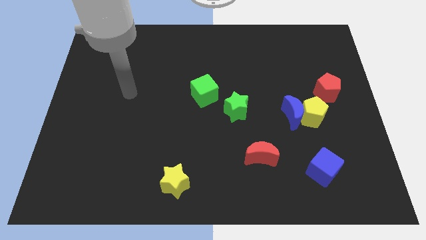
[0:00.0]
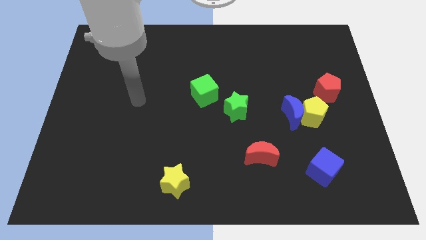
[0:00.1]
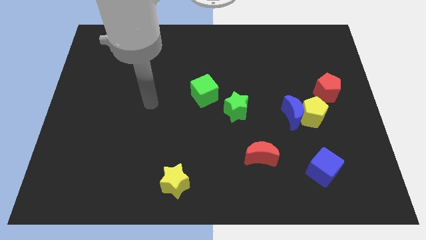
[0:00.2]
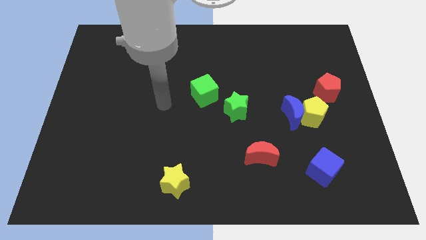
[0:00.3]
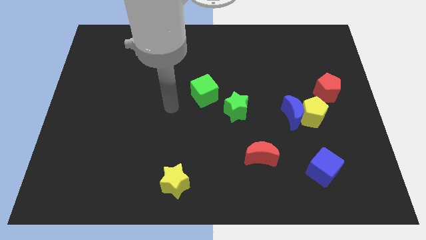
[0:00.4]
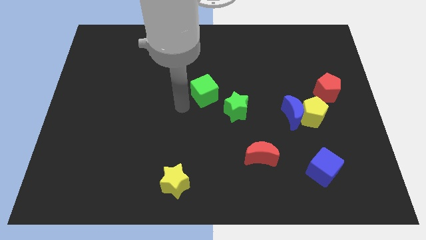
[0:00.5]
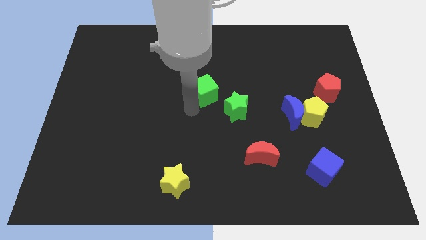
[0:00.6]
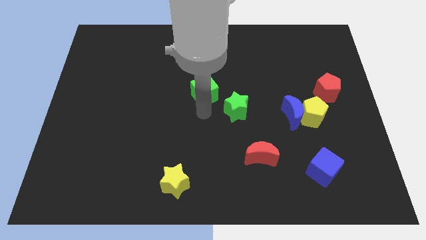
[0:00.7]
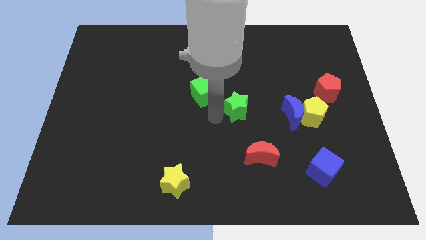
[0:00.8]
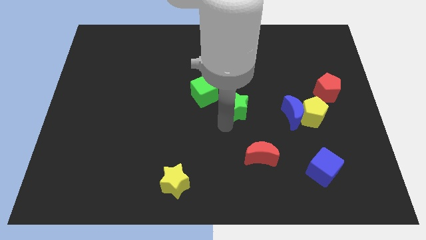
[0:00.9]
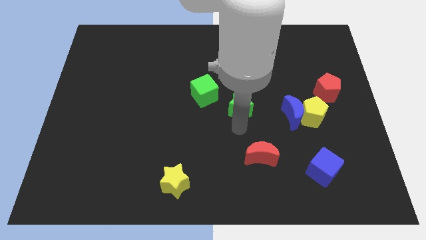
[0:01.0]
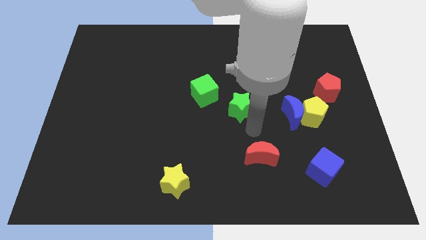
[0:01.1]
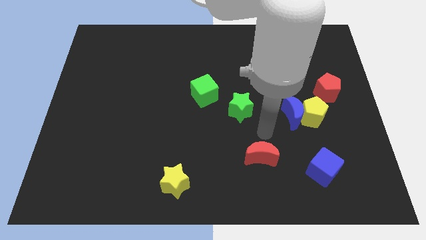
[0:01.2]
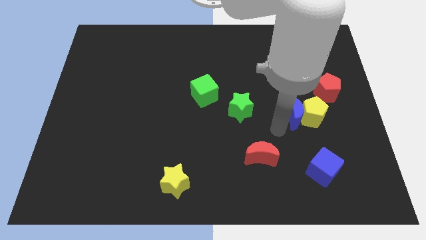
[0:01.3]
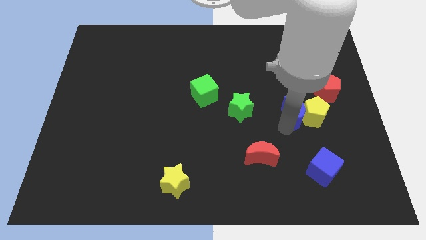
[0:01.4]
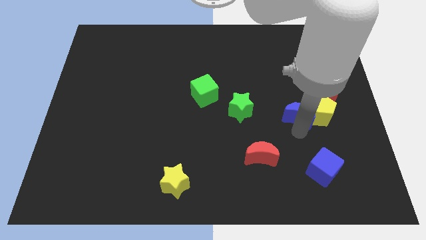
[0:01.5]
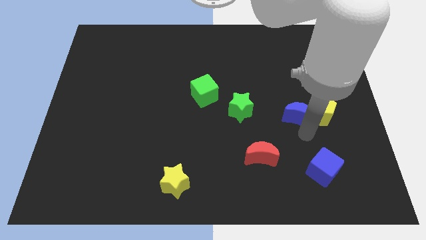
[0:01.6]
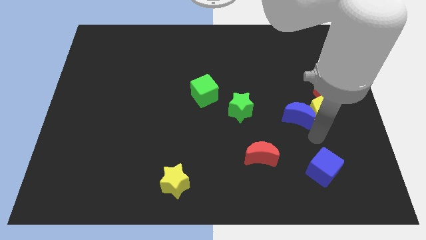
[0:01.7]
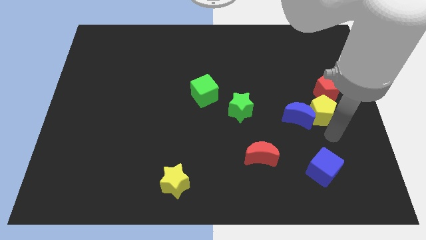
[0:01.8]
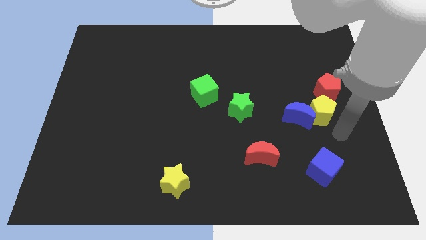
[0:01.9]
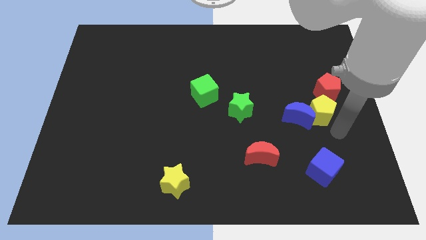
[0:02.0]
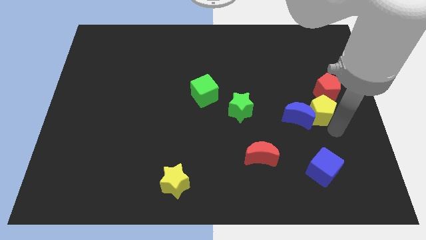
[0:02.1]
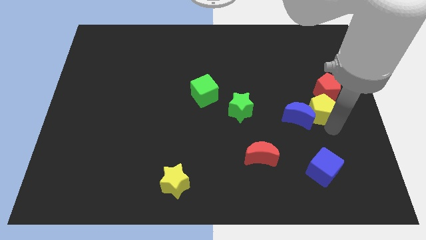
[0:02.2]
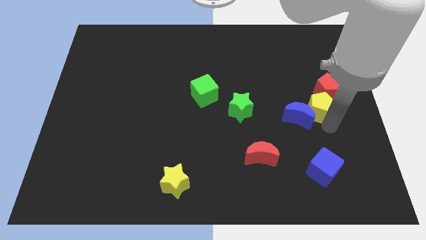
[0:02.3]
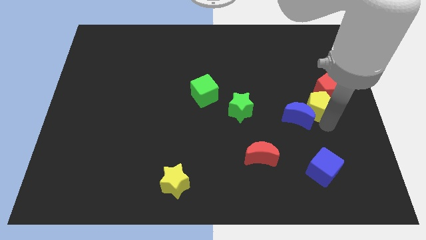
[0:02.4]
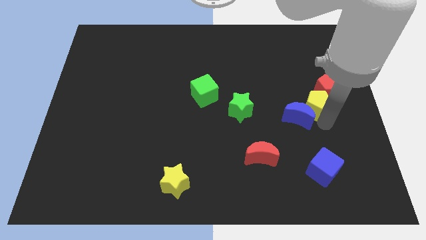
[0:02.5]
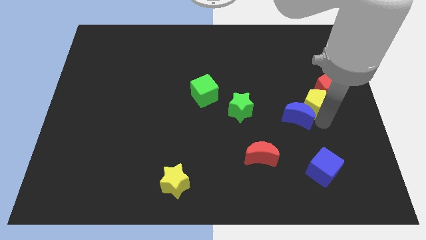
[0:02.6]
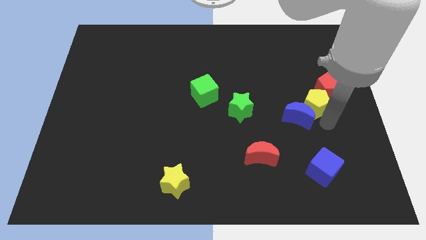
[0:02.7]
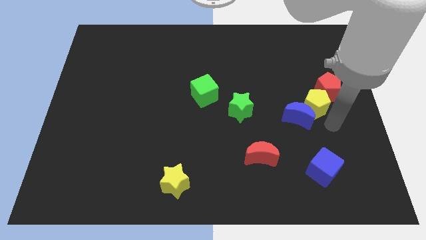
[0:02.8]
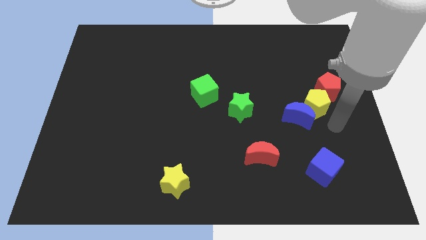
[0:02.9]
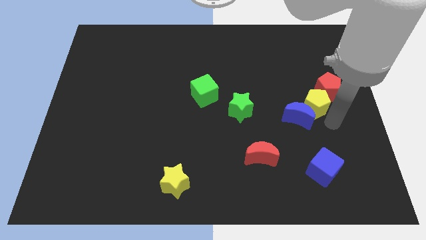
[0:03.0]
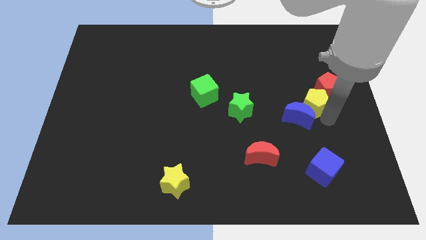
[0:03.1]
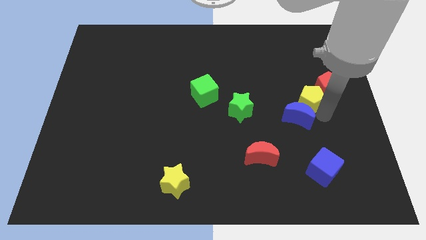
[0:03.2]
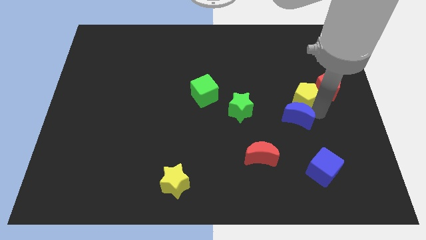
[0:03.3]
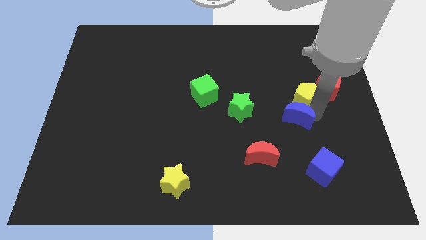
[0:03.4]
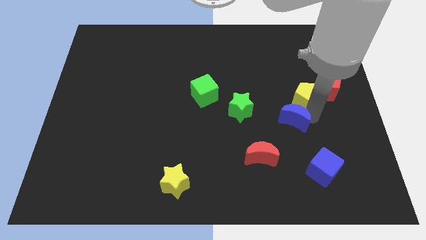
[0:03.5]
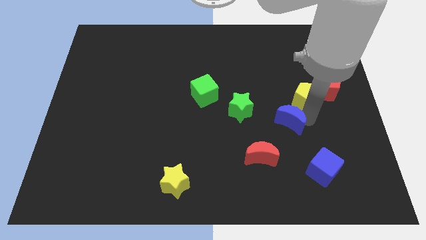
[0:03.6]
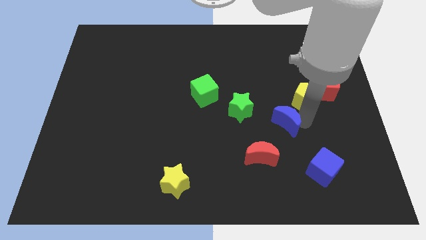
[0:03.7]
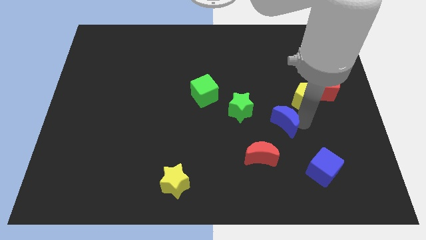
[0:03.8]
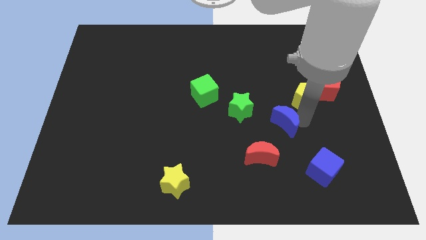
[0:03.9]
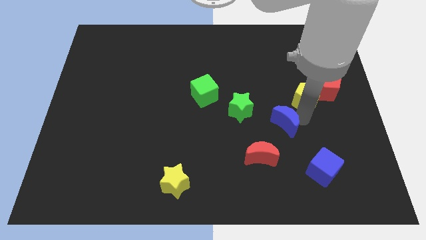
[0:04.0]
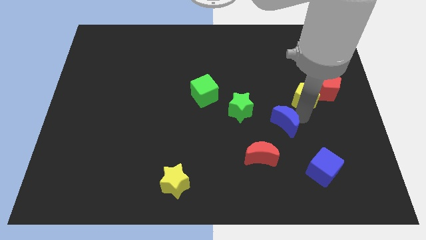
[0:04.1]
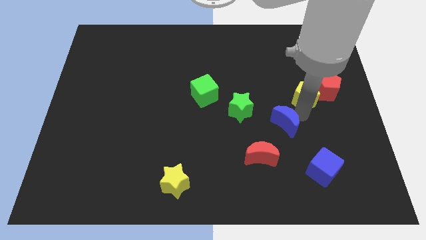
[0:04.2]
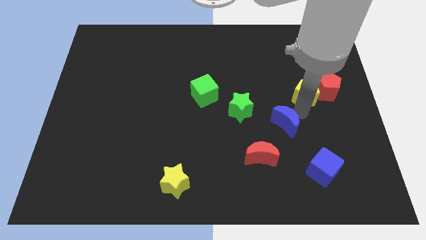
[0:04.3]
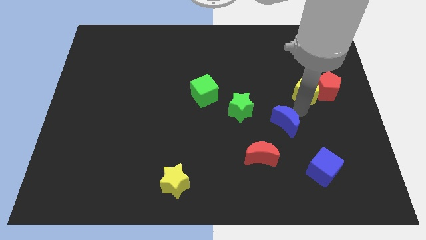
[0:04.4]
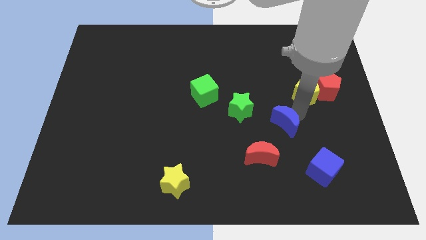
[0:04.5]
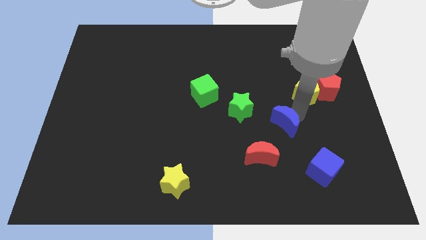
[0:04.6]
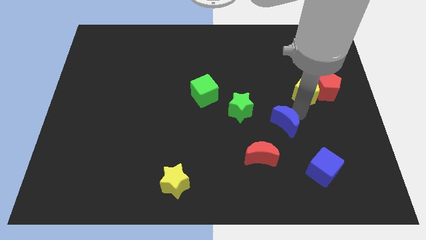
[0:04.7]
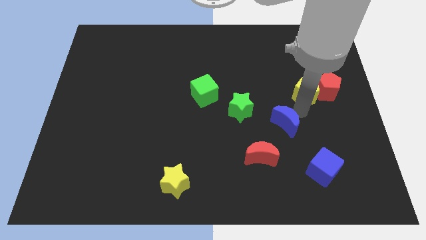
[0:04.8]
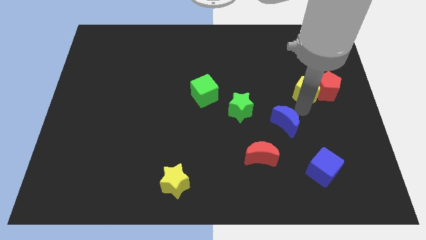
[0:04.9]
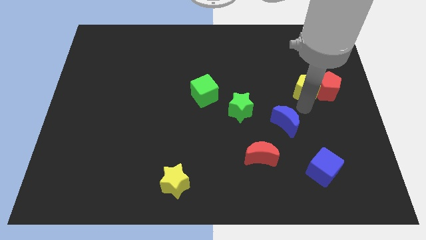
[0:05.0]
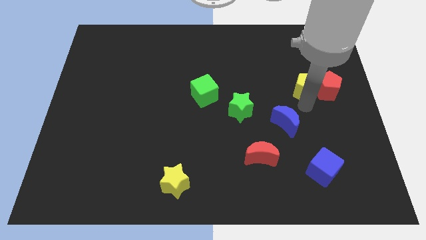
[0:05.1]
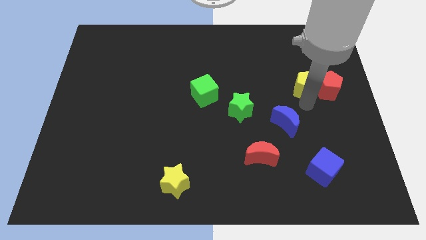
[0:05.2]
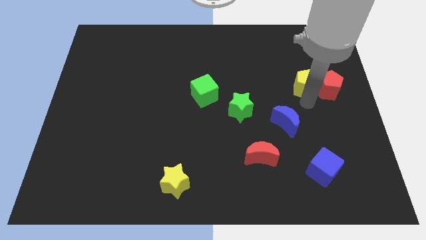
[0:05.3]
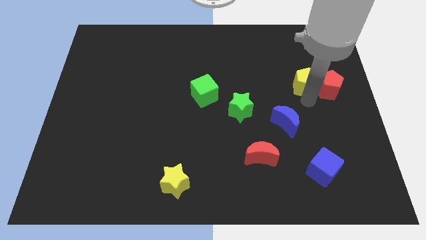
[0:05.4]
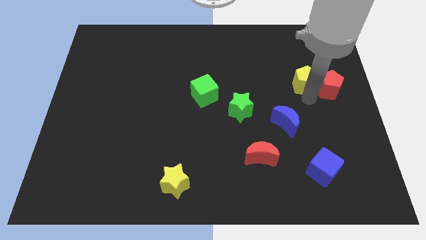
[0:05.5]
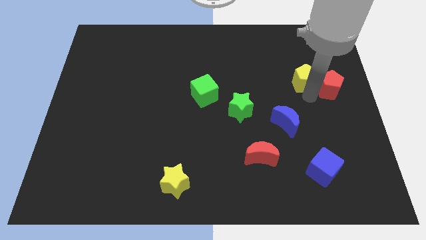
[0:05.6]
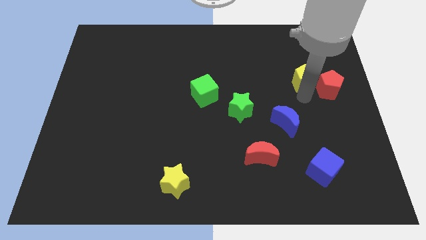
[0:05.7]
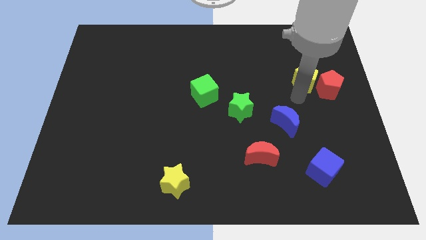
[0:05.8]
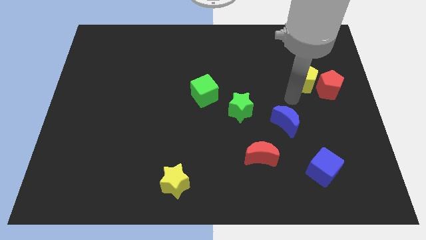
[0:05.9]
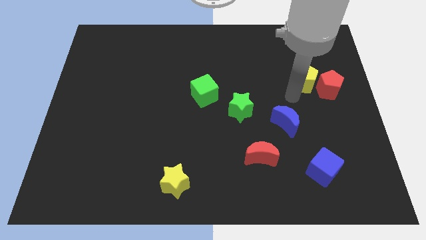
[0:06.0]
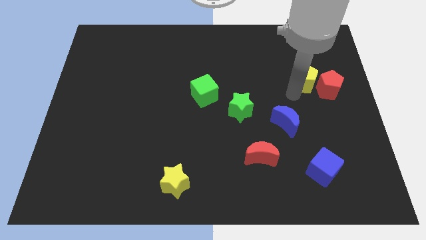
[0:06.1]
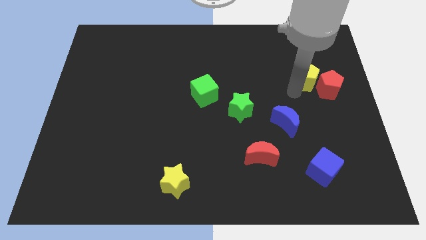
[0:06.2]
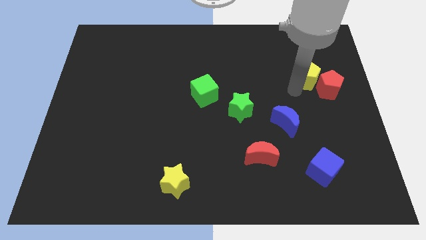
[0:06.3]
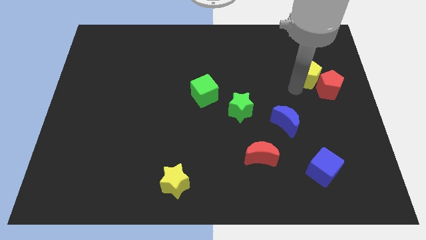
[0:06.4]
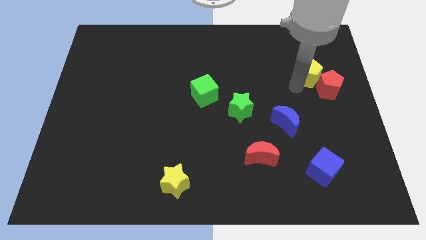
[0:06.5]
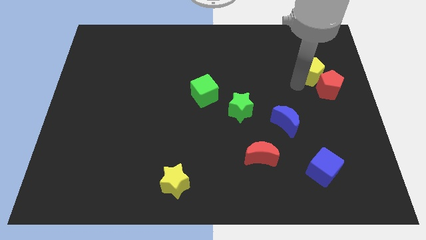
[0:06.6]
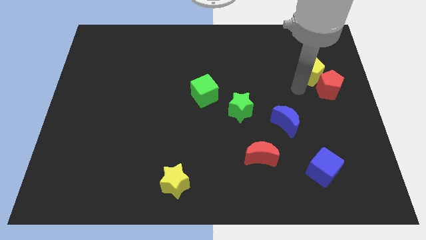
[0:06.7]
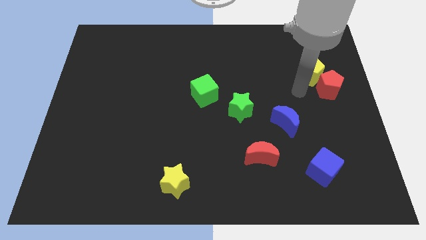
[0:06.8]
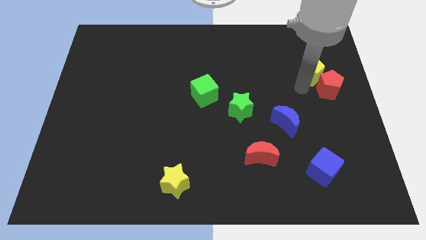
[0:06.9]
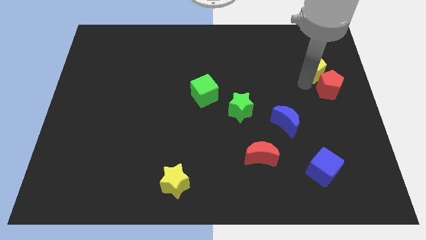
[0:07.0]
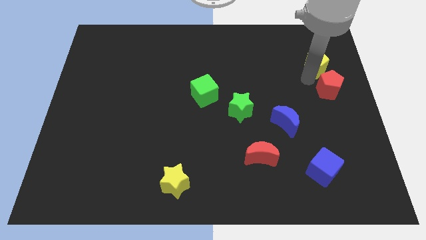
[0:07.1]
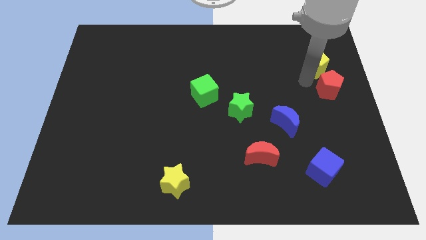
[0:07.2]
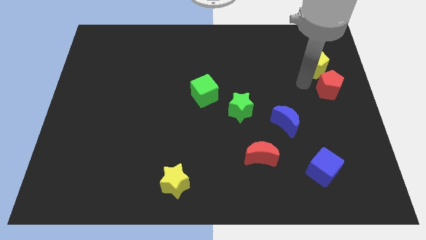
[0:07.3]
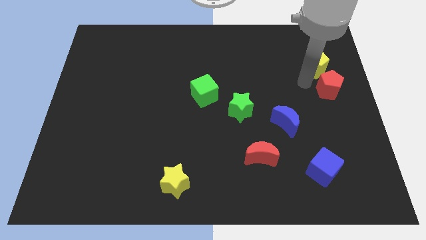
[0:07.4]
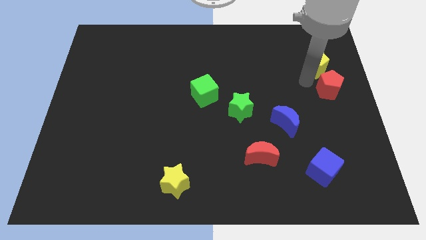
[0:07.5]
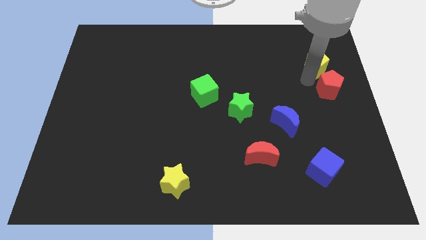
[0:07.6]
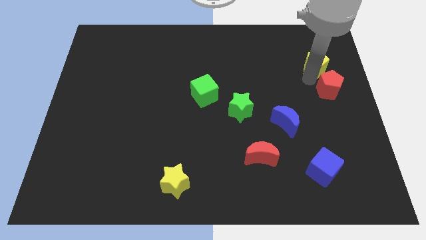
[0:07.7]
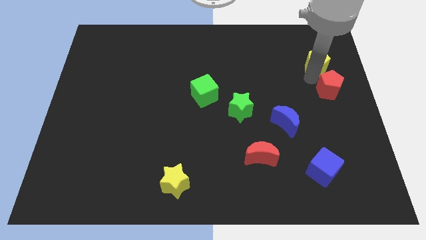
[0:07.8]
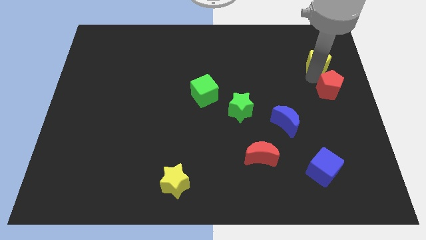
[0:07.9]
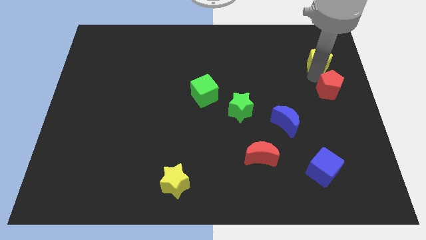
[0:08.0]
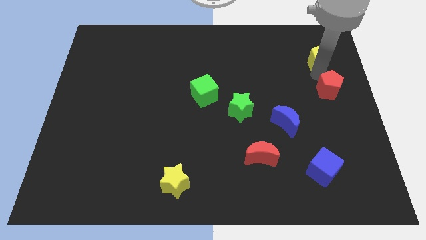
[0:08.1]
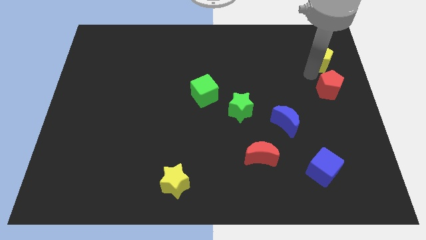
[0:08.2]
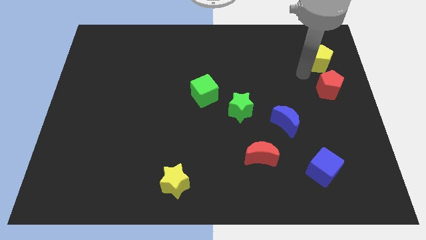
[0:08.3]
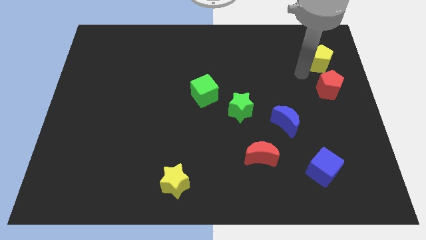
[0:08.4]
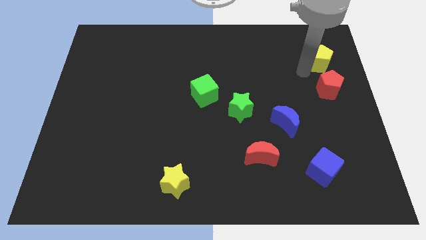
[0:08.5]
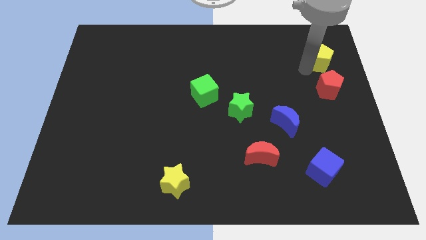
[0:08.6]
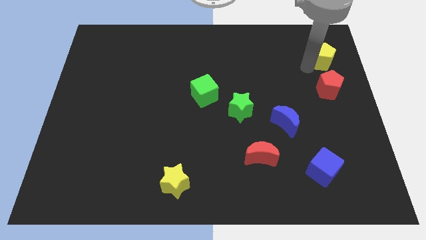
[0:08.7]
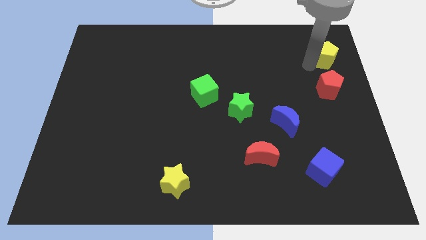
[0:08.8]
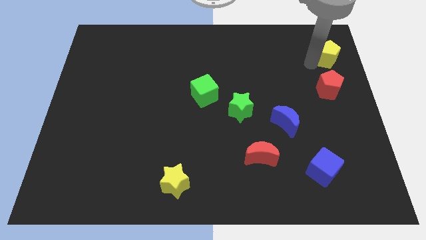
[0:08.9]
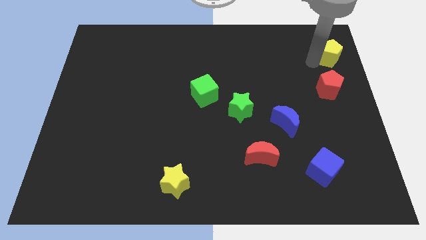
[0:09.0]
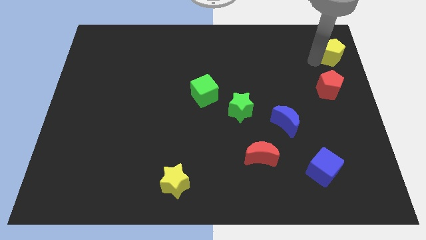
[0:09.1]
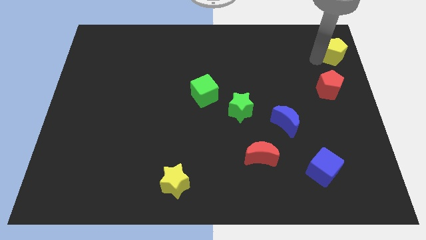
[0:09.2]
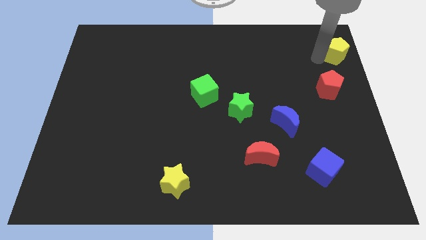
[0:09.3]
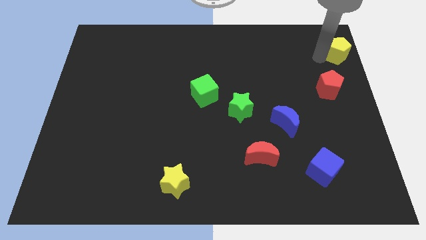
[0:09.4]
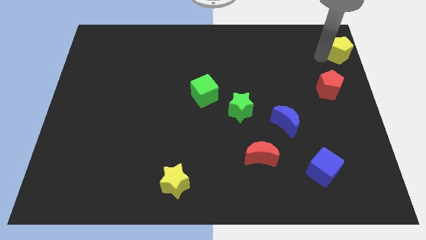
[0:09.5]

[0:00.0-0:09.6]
put the yellow pentagon to the top right
